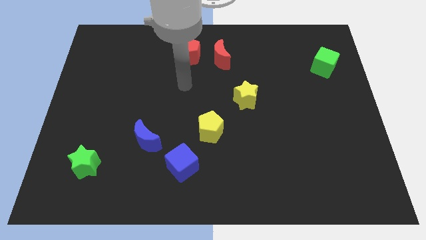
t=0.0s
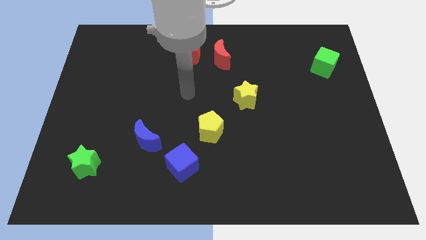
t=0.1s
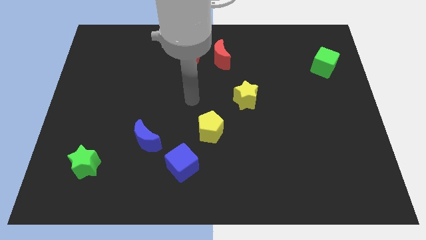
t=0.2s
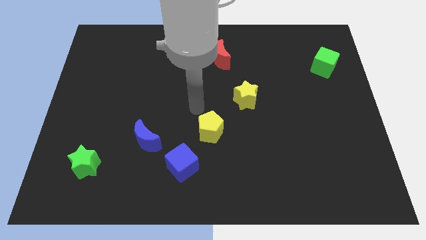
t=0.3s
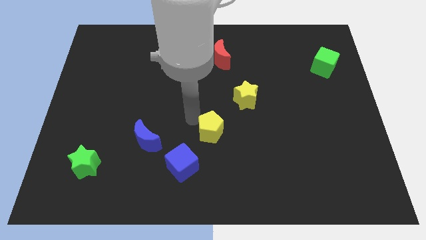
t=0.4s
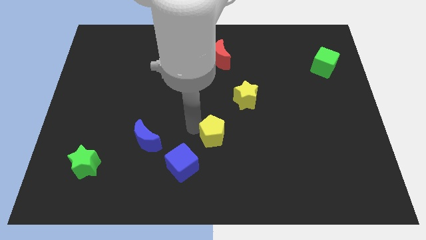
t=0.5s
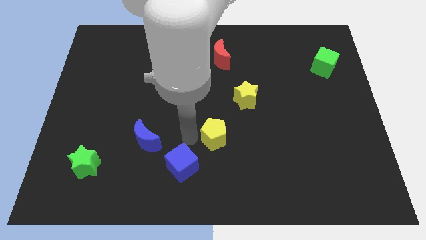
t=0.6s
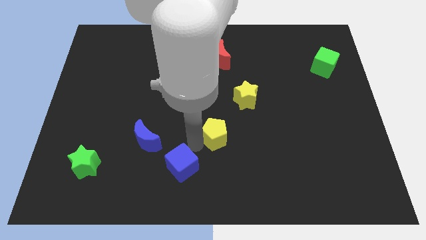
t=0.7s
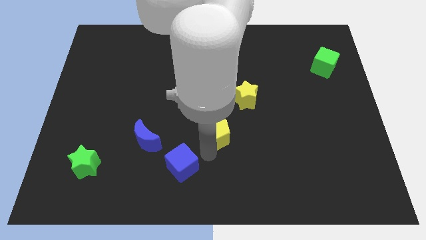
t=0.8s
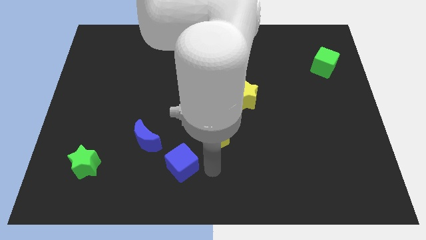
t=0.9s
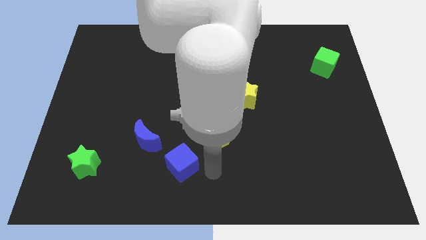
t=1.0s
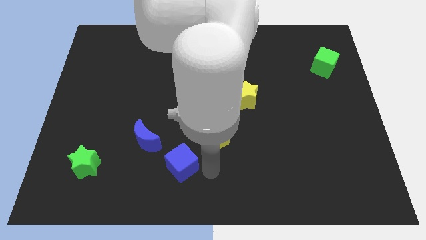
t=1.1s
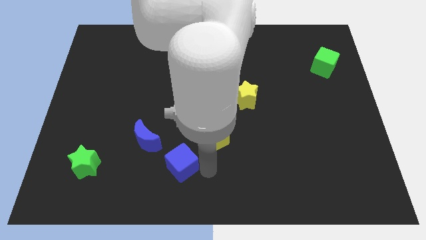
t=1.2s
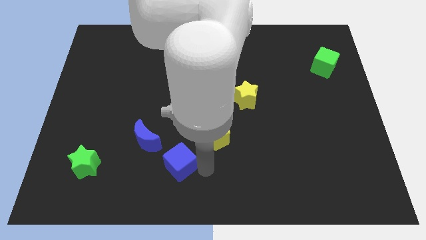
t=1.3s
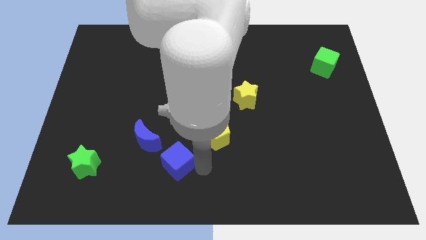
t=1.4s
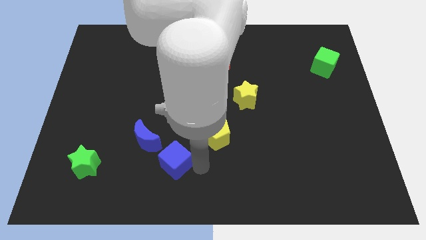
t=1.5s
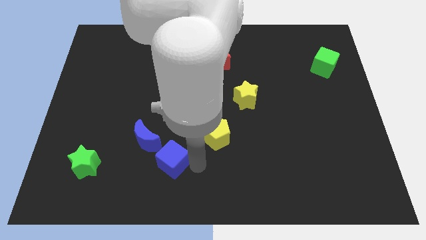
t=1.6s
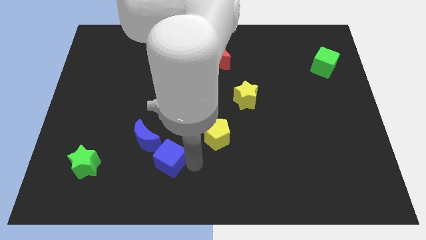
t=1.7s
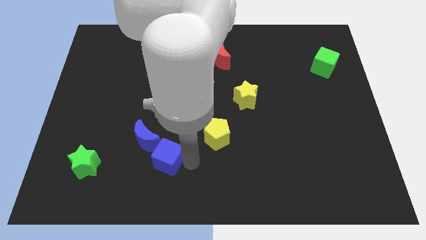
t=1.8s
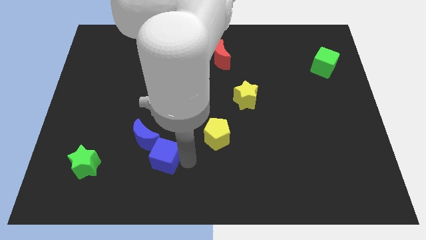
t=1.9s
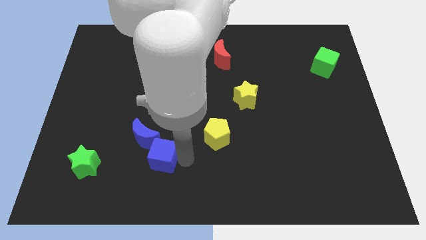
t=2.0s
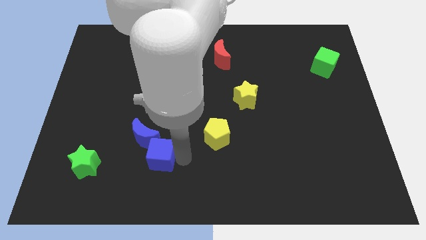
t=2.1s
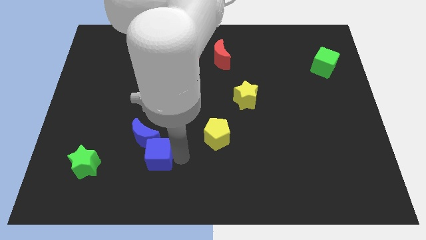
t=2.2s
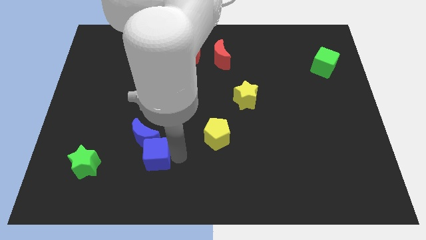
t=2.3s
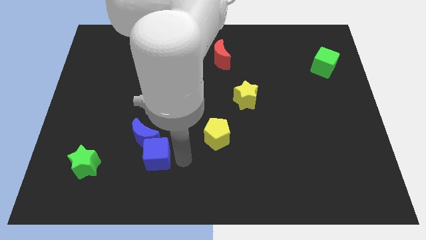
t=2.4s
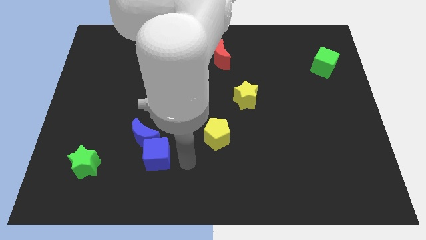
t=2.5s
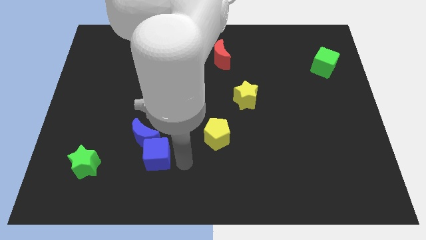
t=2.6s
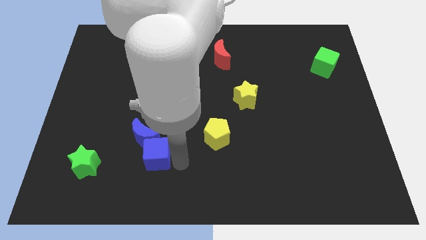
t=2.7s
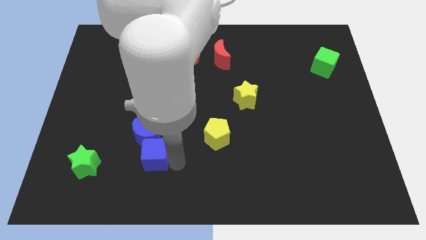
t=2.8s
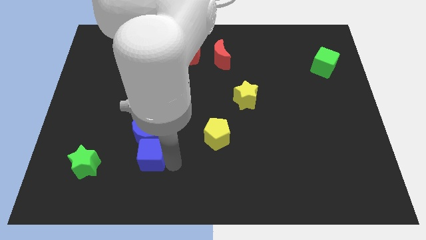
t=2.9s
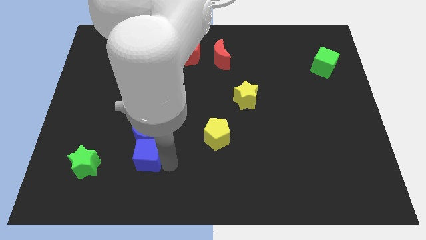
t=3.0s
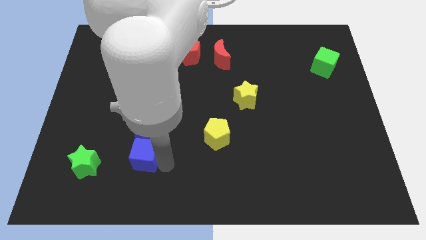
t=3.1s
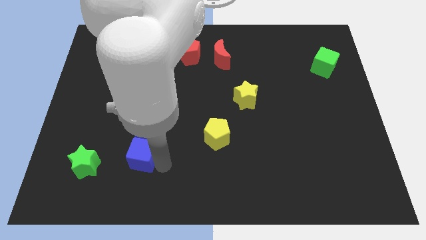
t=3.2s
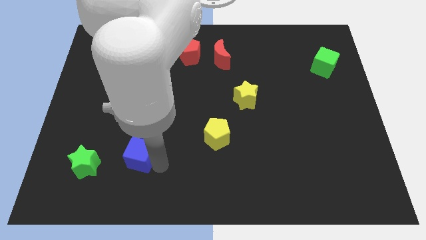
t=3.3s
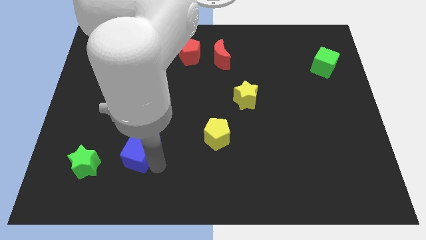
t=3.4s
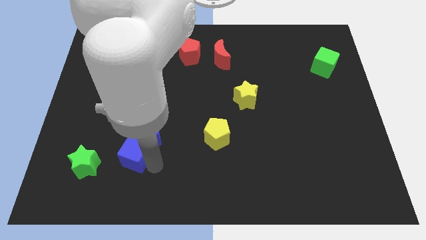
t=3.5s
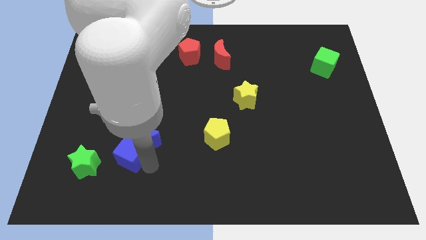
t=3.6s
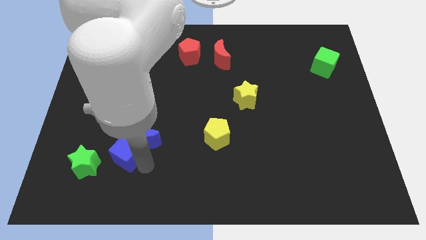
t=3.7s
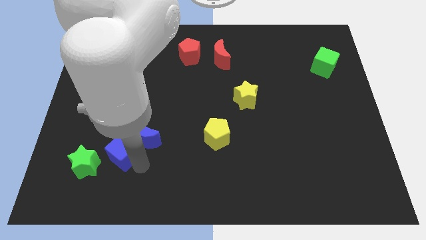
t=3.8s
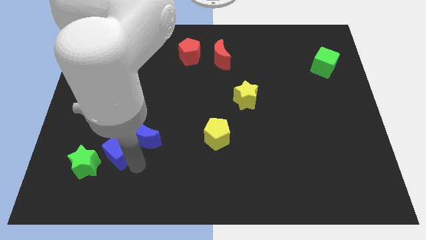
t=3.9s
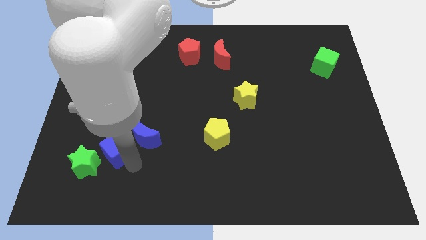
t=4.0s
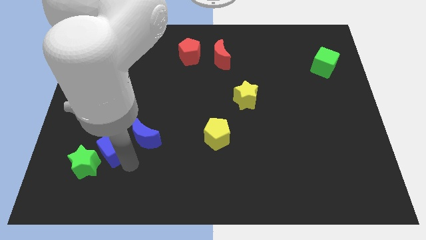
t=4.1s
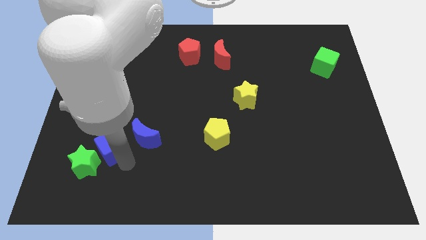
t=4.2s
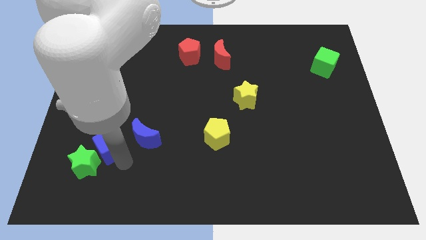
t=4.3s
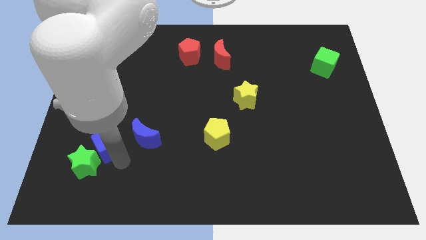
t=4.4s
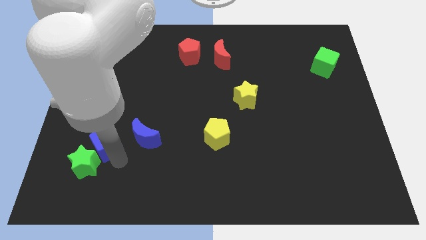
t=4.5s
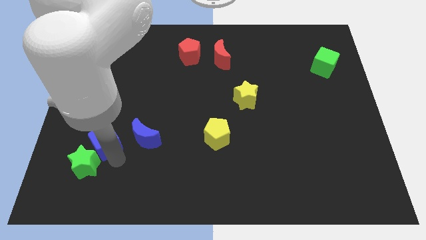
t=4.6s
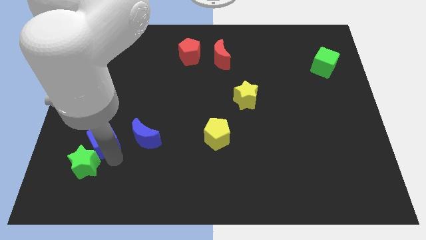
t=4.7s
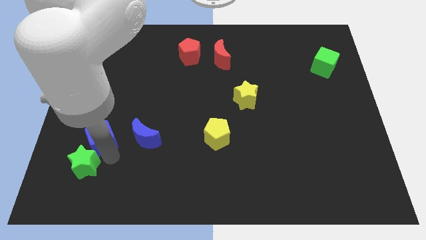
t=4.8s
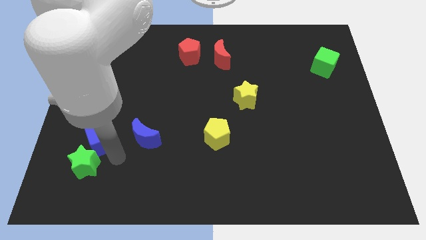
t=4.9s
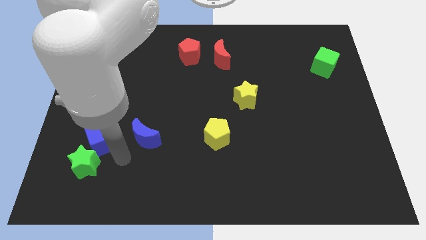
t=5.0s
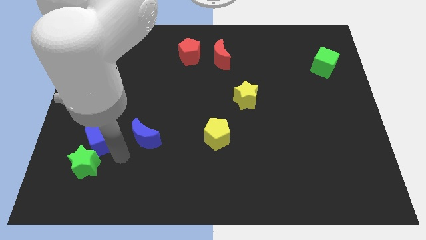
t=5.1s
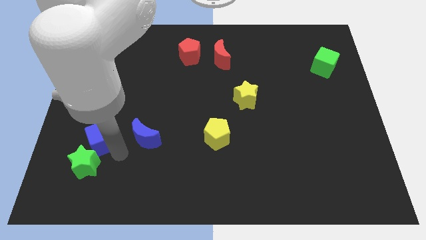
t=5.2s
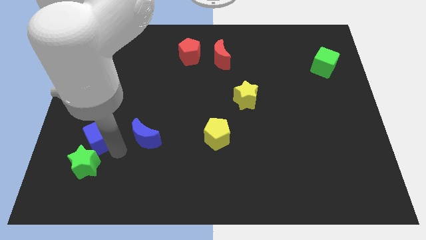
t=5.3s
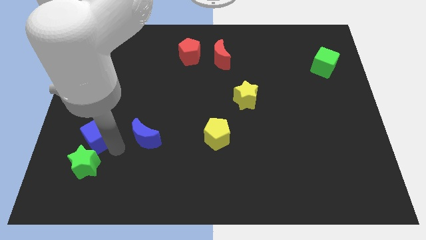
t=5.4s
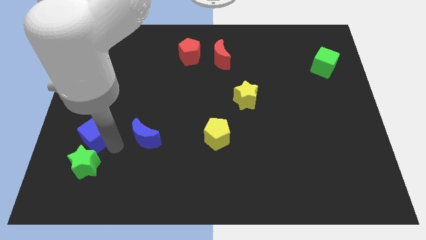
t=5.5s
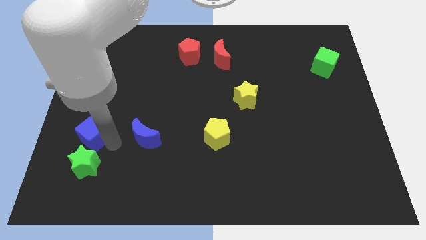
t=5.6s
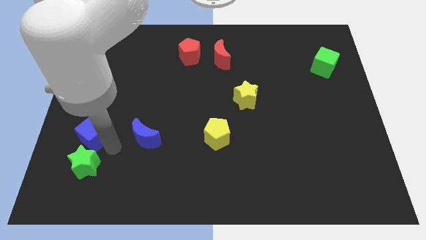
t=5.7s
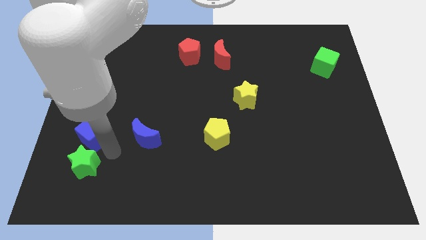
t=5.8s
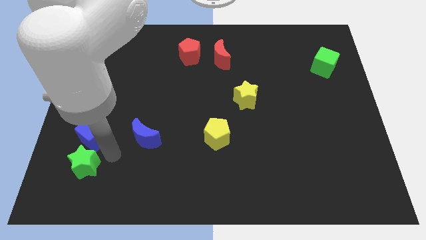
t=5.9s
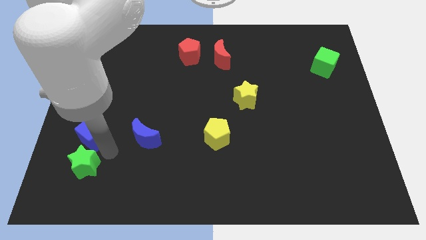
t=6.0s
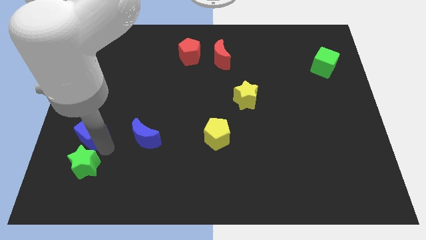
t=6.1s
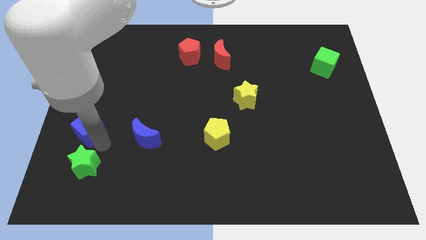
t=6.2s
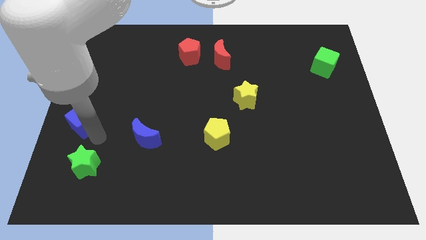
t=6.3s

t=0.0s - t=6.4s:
push the blue cube to the left side of the board
